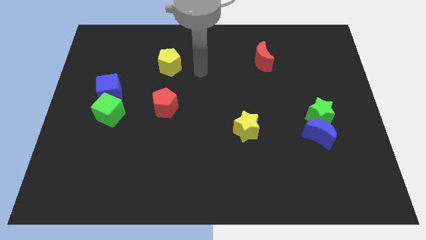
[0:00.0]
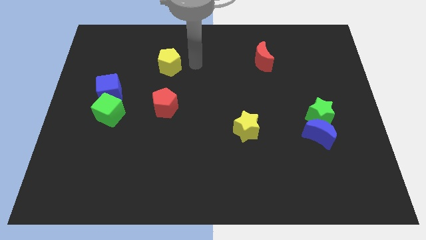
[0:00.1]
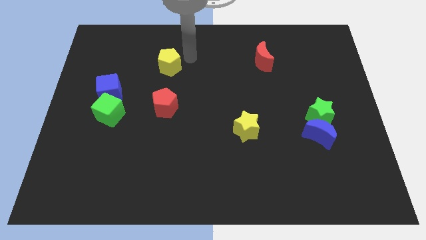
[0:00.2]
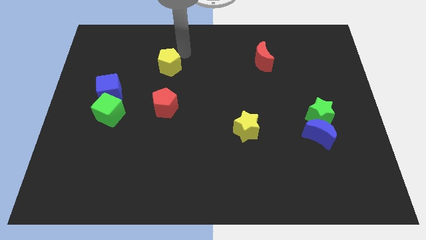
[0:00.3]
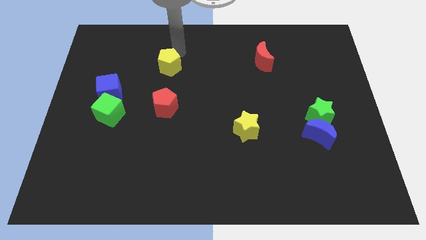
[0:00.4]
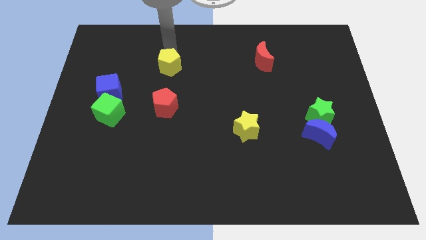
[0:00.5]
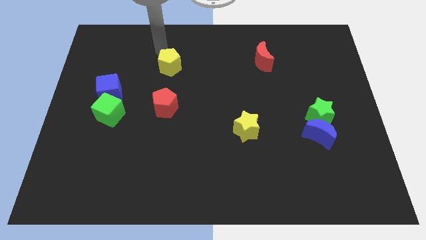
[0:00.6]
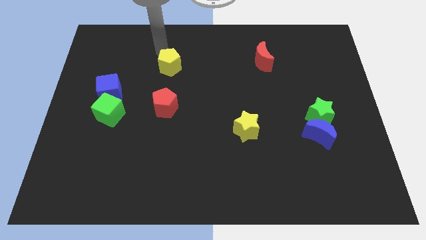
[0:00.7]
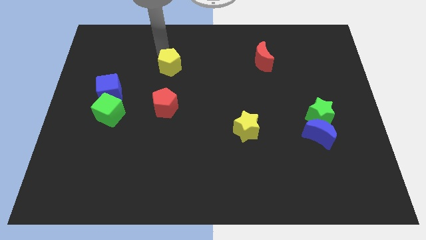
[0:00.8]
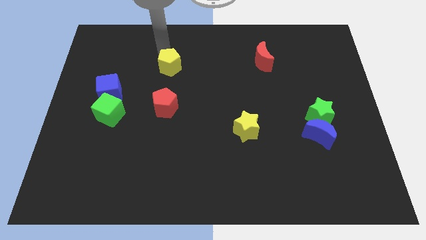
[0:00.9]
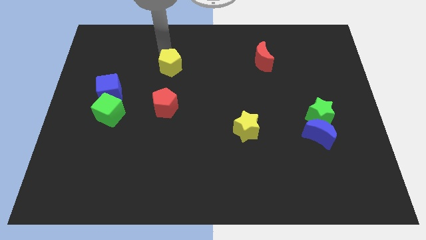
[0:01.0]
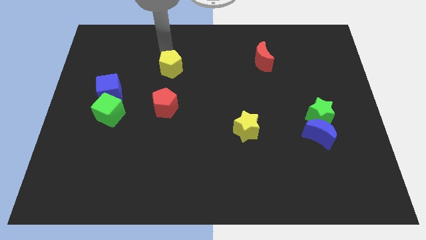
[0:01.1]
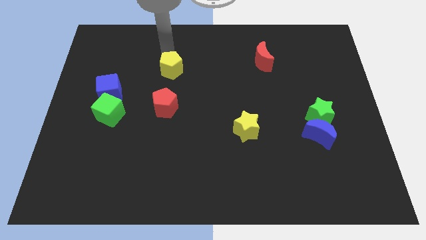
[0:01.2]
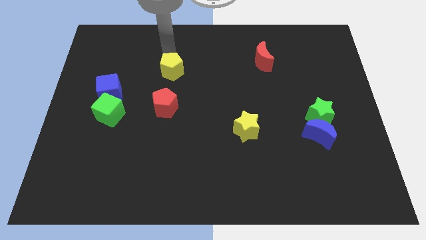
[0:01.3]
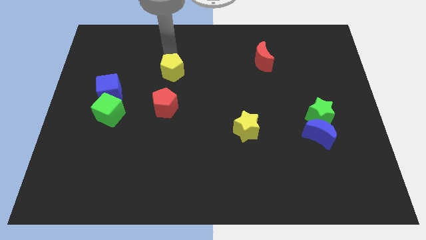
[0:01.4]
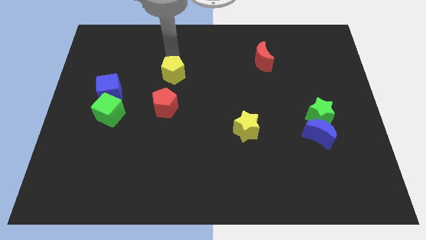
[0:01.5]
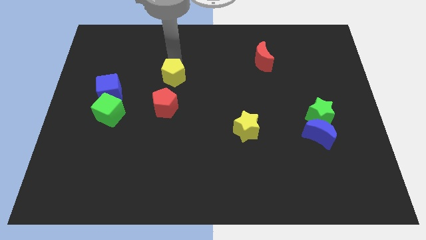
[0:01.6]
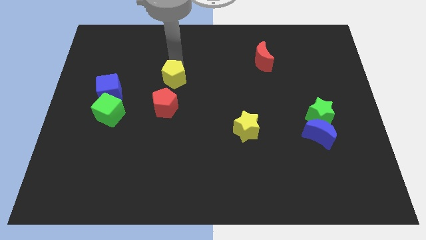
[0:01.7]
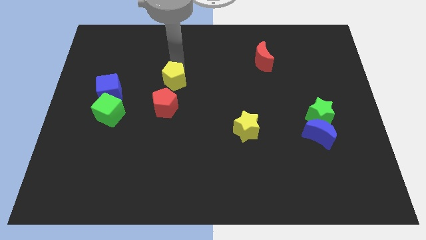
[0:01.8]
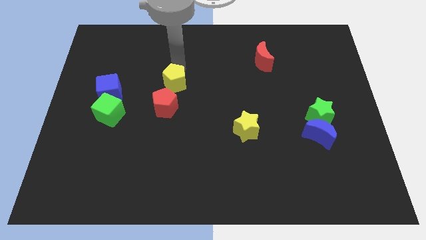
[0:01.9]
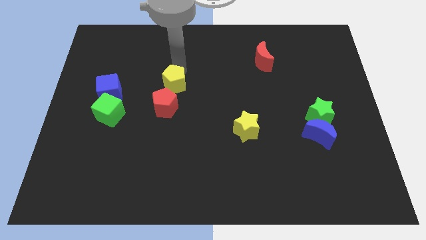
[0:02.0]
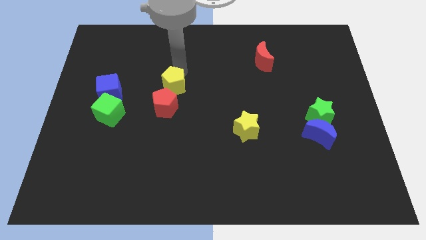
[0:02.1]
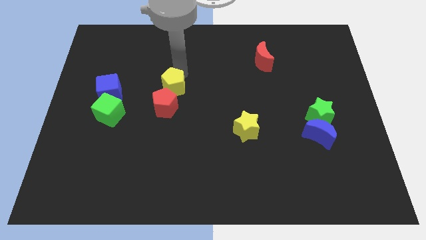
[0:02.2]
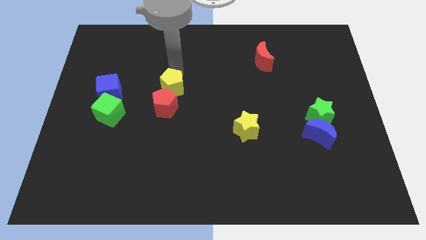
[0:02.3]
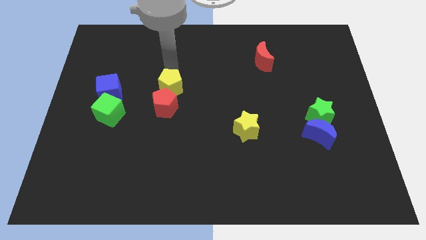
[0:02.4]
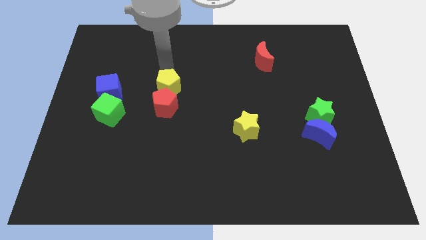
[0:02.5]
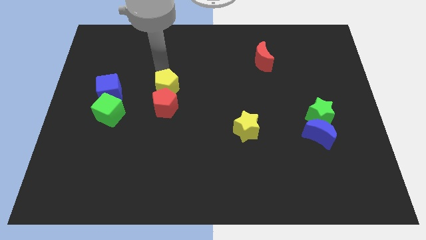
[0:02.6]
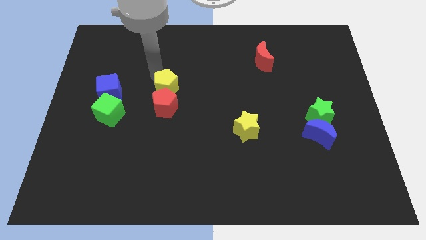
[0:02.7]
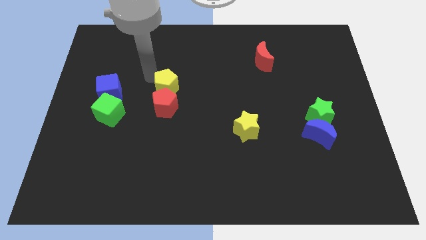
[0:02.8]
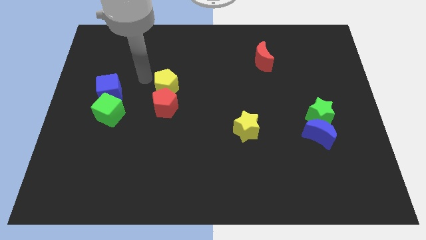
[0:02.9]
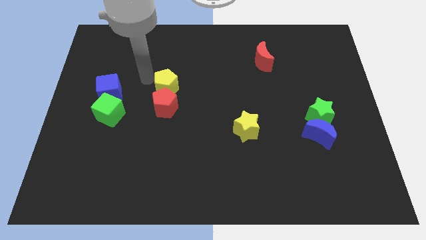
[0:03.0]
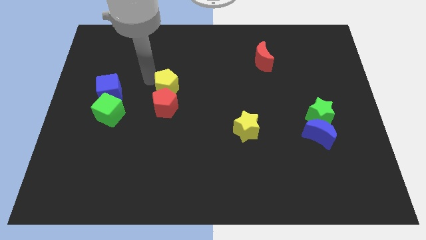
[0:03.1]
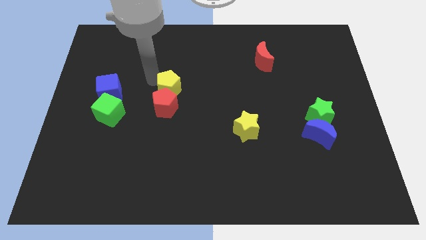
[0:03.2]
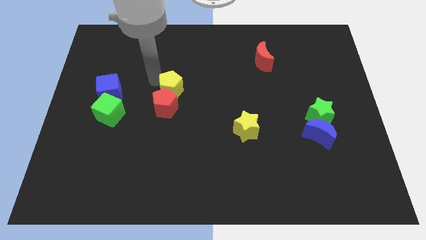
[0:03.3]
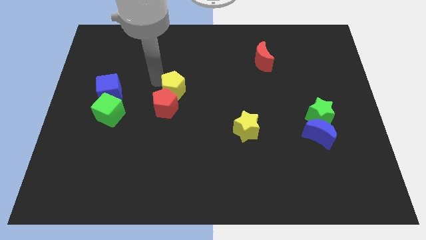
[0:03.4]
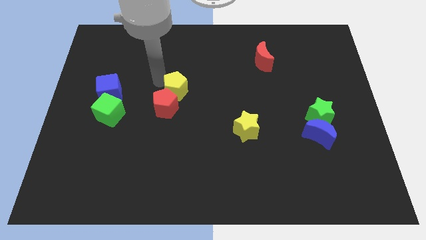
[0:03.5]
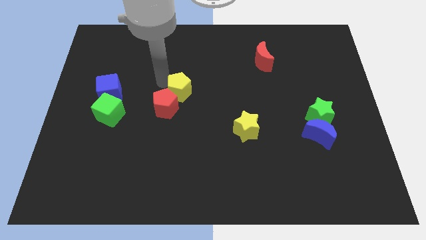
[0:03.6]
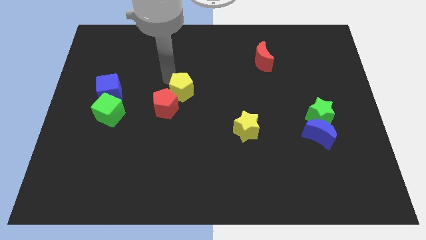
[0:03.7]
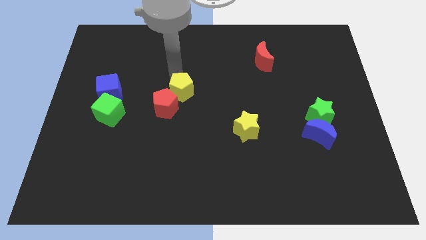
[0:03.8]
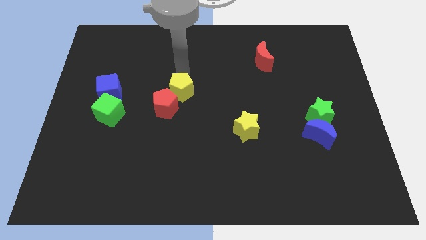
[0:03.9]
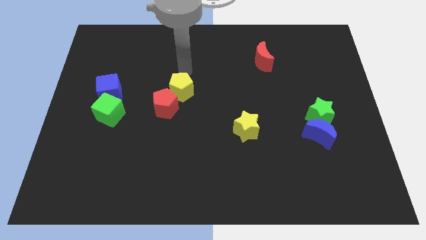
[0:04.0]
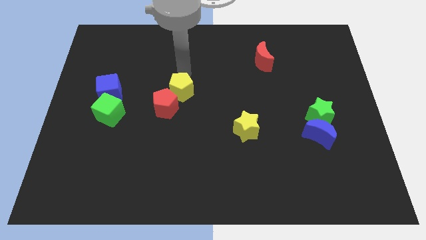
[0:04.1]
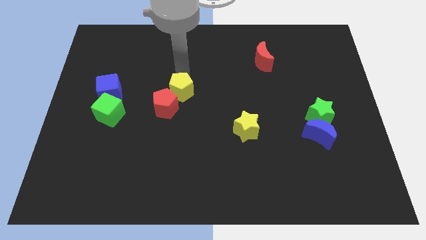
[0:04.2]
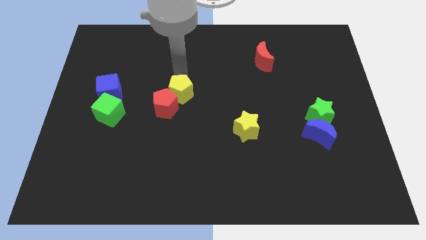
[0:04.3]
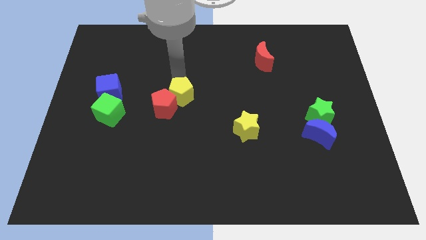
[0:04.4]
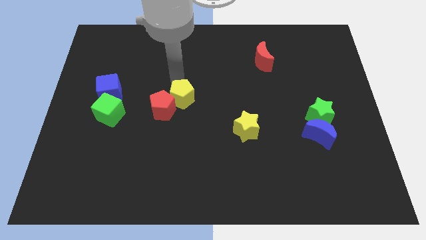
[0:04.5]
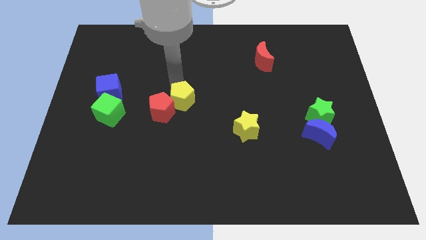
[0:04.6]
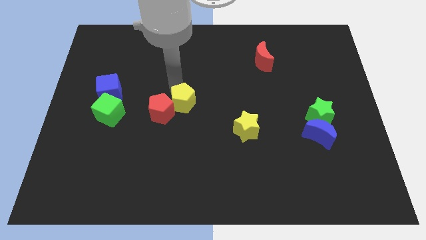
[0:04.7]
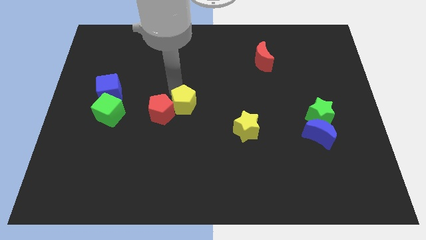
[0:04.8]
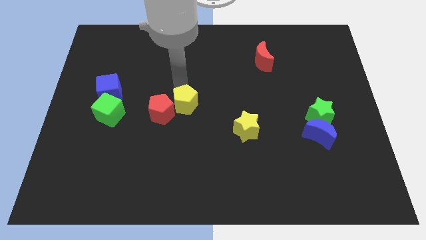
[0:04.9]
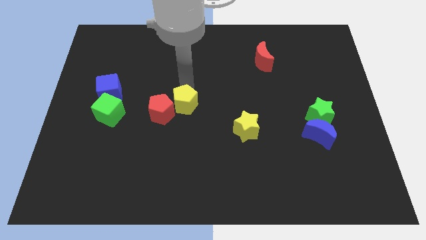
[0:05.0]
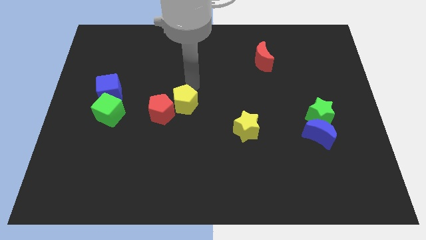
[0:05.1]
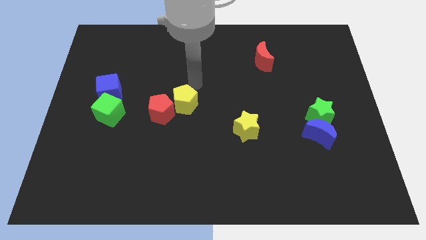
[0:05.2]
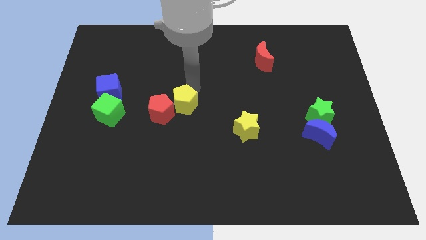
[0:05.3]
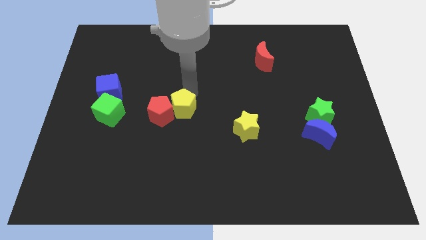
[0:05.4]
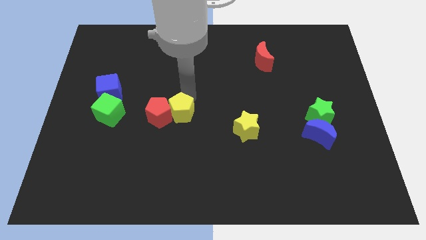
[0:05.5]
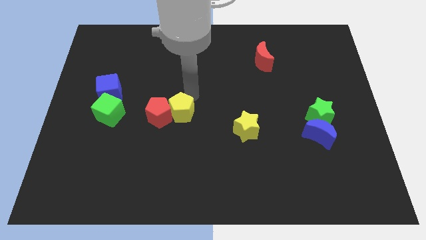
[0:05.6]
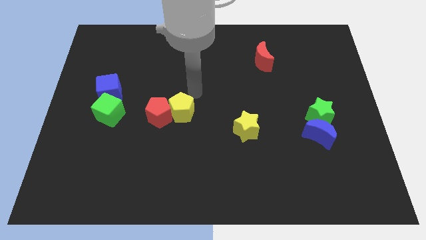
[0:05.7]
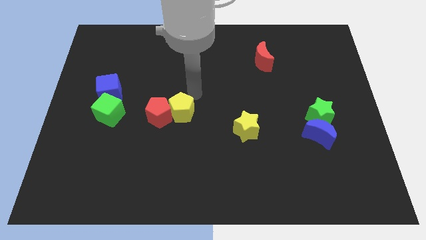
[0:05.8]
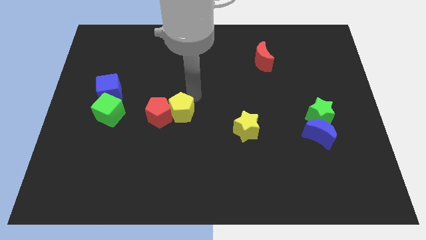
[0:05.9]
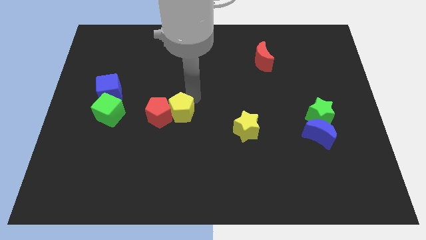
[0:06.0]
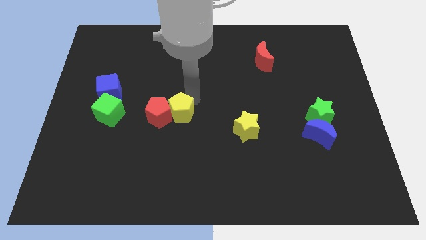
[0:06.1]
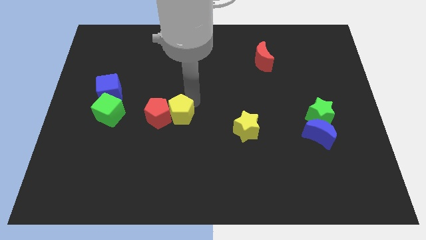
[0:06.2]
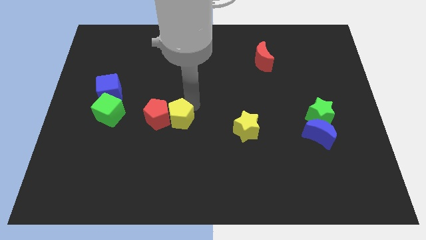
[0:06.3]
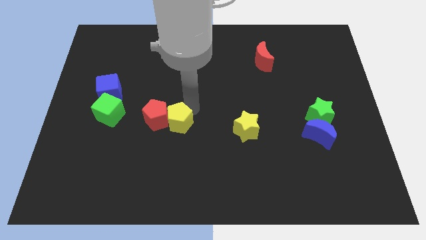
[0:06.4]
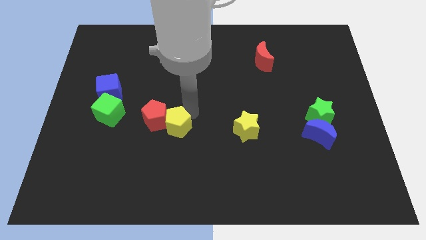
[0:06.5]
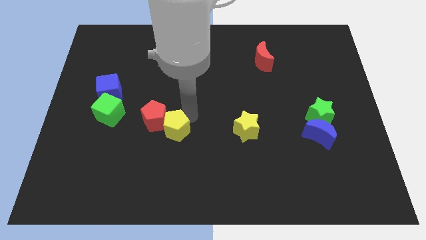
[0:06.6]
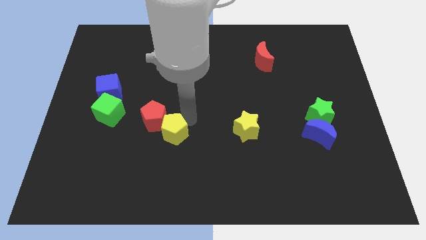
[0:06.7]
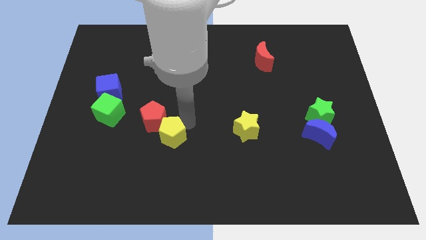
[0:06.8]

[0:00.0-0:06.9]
push the yellow pentagon to the bottom of the red pentagon
